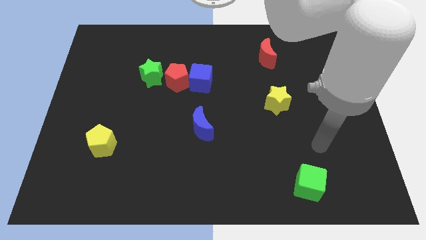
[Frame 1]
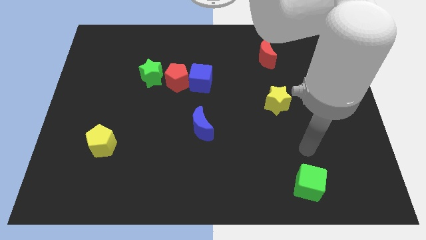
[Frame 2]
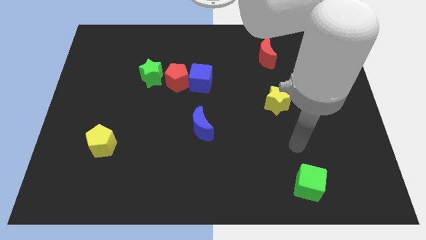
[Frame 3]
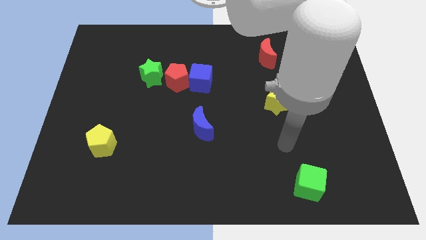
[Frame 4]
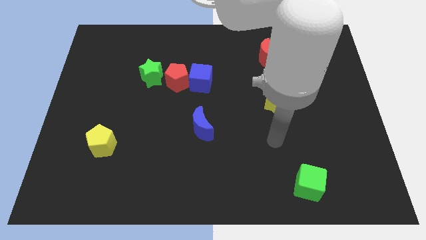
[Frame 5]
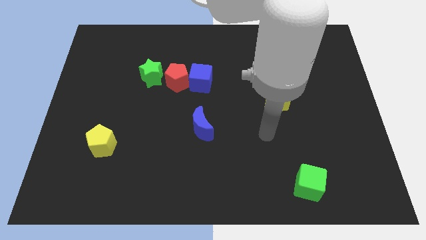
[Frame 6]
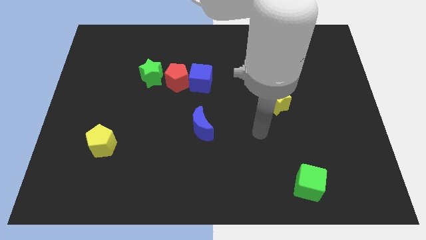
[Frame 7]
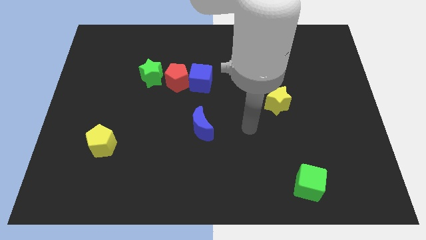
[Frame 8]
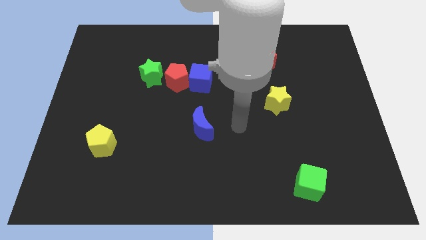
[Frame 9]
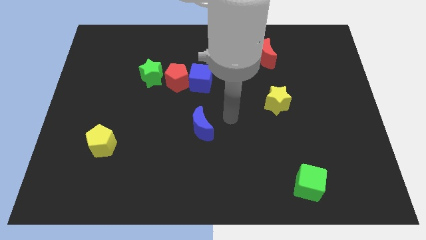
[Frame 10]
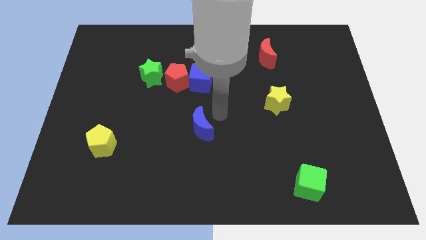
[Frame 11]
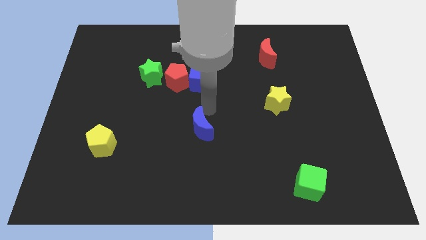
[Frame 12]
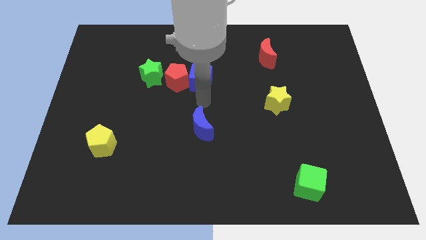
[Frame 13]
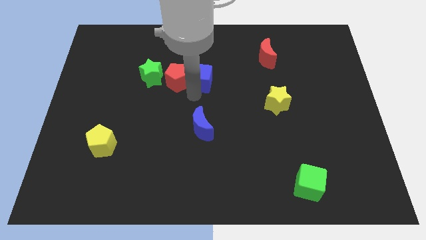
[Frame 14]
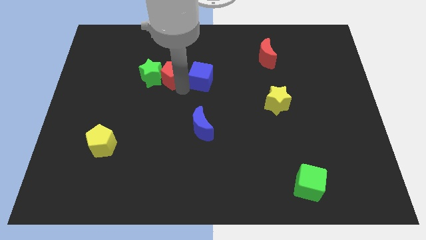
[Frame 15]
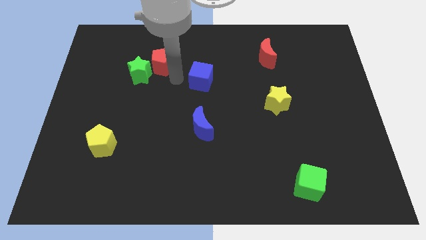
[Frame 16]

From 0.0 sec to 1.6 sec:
move the blue cube away from the red pentagon

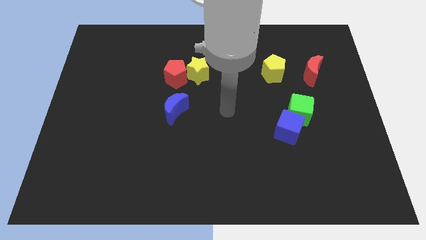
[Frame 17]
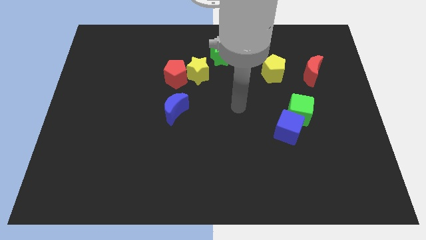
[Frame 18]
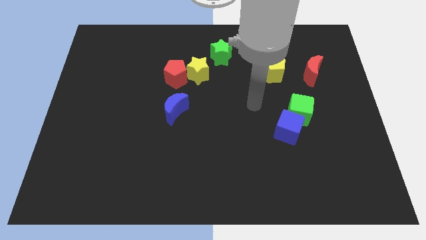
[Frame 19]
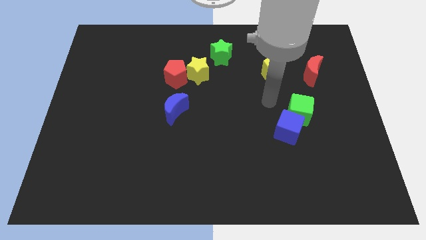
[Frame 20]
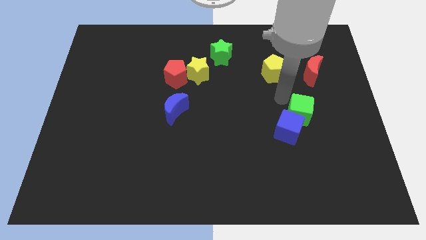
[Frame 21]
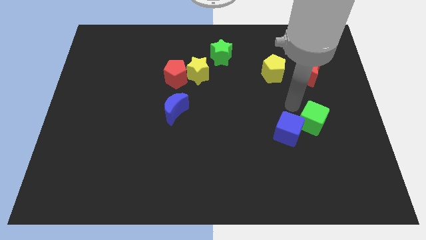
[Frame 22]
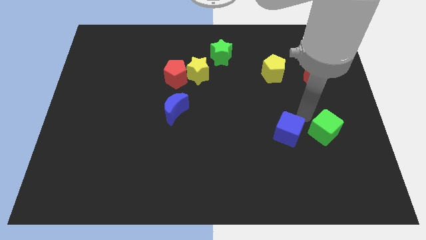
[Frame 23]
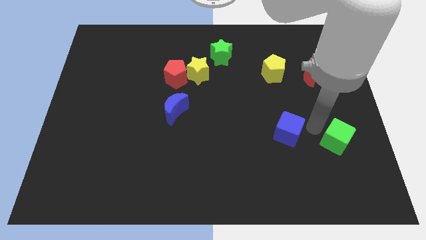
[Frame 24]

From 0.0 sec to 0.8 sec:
pull the blue cube apart from the green cube

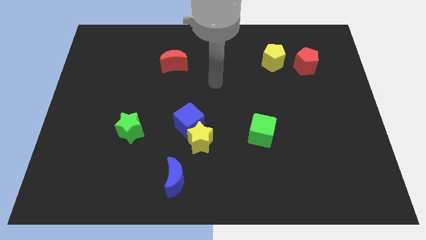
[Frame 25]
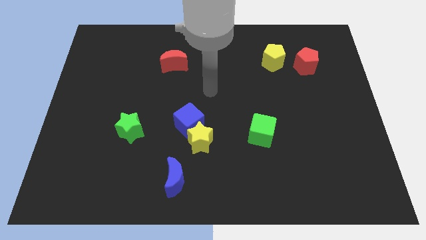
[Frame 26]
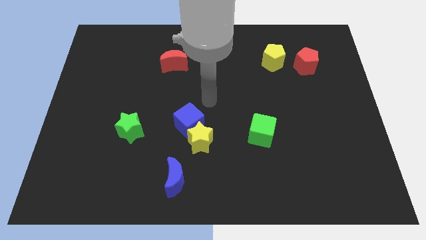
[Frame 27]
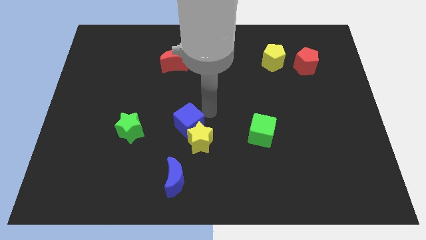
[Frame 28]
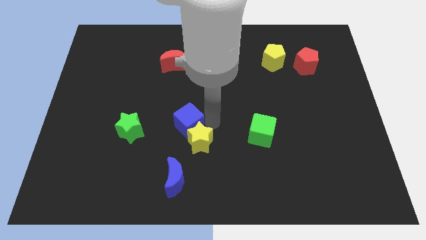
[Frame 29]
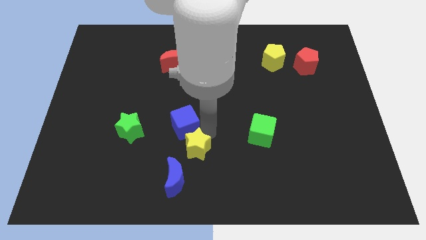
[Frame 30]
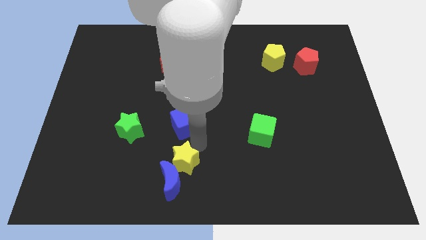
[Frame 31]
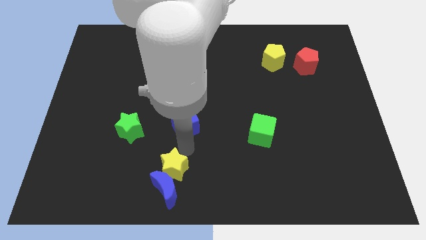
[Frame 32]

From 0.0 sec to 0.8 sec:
move the blue cube away from the yellow star

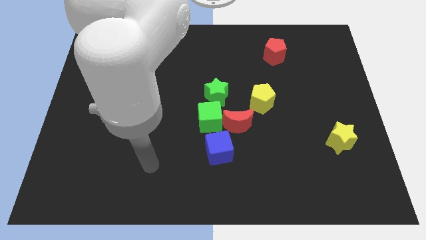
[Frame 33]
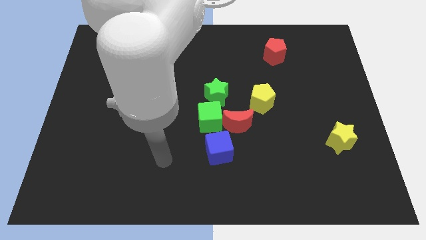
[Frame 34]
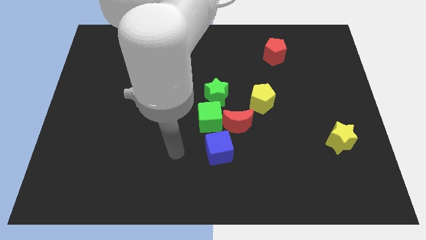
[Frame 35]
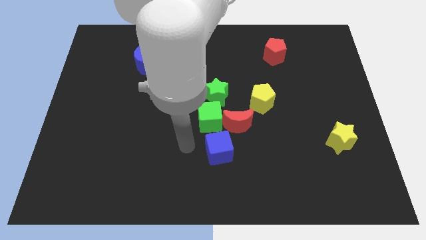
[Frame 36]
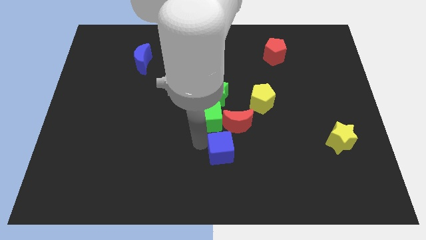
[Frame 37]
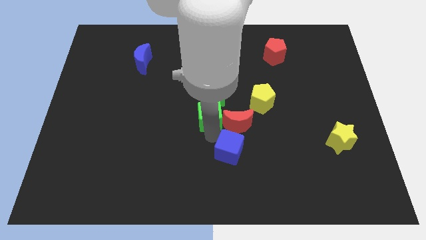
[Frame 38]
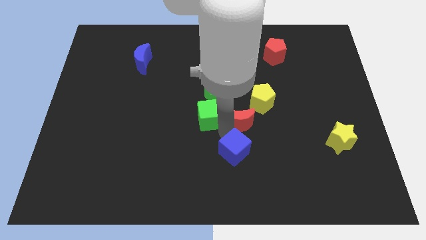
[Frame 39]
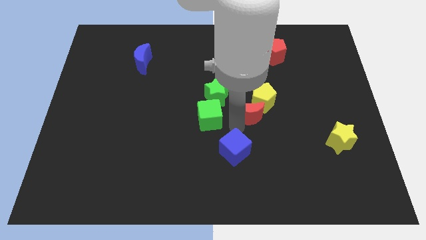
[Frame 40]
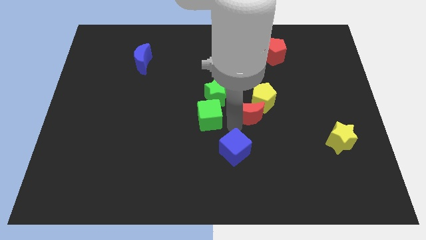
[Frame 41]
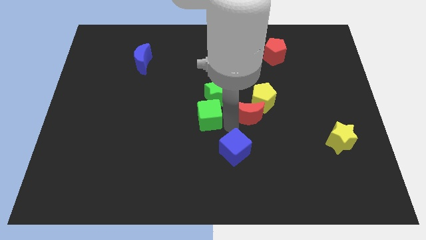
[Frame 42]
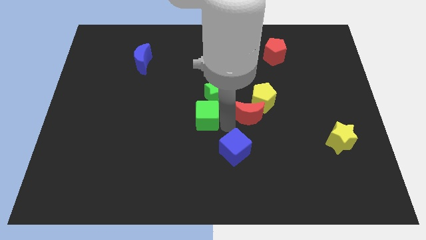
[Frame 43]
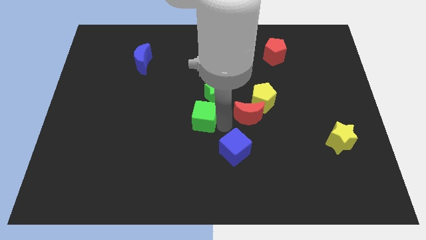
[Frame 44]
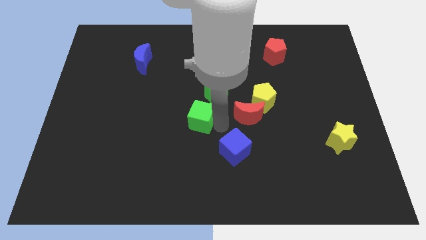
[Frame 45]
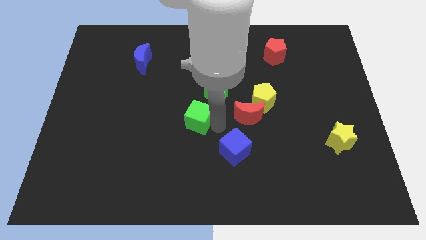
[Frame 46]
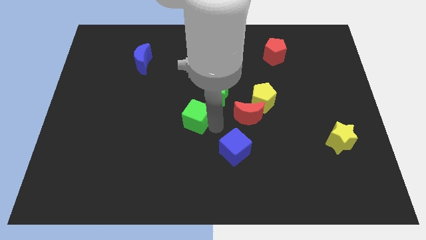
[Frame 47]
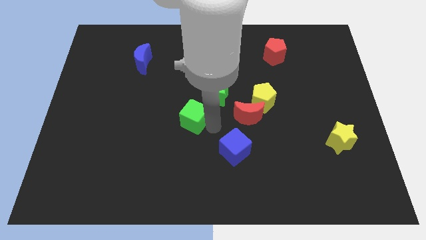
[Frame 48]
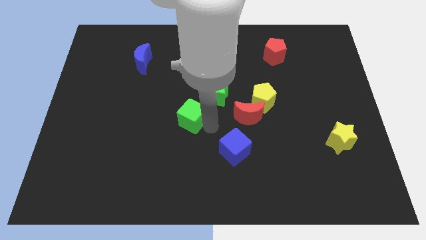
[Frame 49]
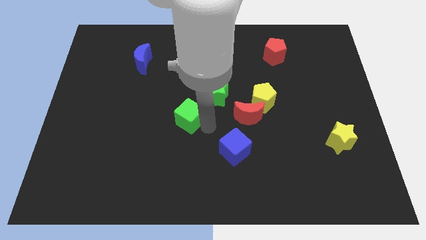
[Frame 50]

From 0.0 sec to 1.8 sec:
separate the green cube from the group of blocks

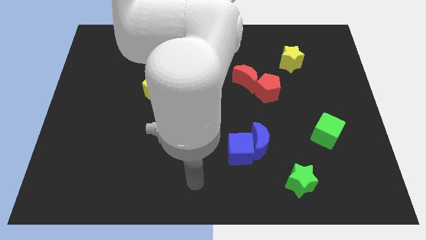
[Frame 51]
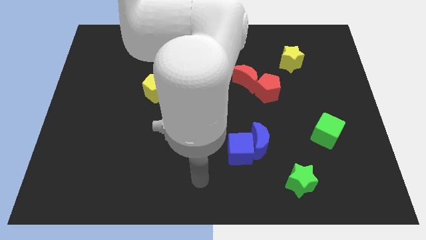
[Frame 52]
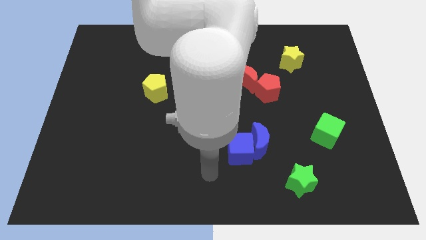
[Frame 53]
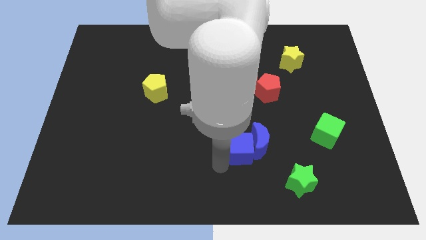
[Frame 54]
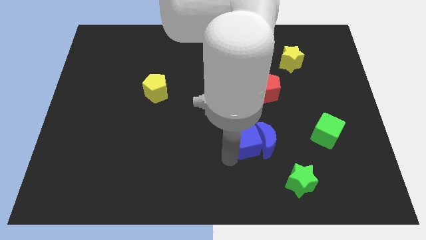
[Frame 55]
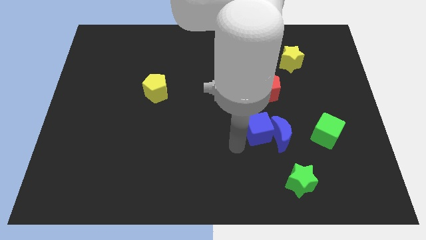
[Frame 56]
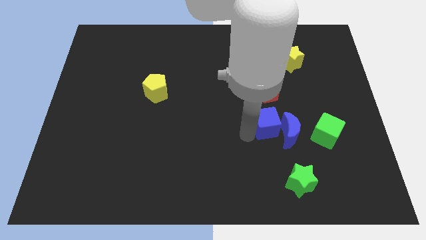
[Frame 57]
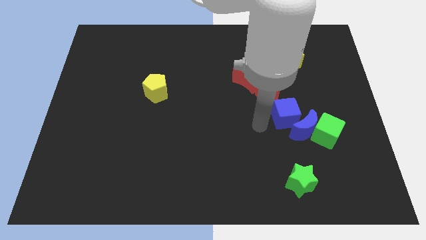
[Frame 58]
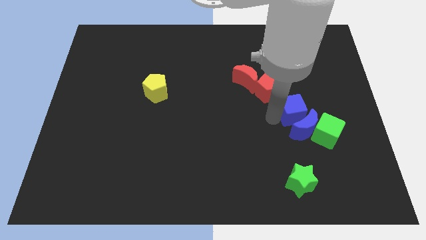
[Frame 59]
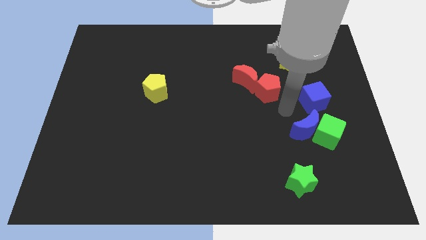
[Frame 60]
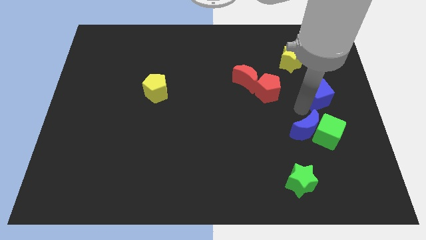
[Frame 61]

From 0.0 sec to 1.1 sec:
pull the blue moon apart from the blue cube

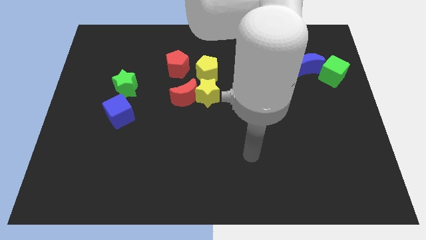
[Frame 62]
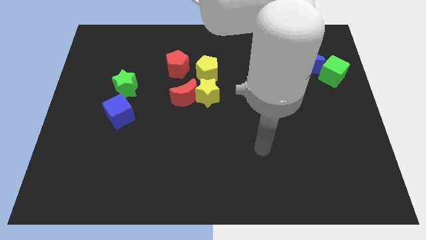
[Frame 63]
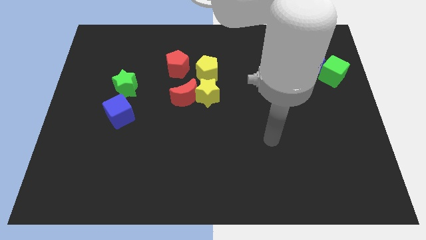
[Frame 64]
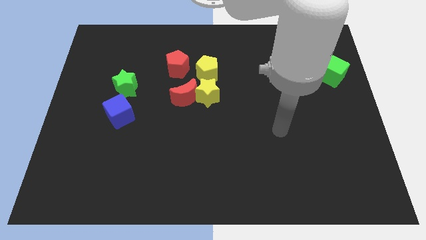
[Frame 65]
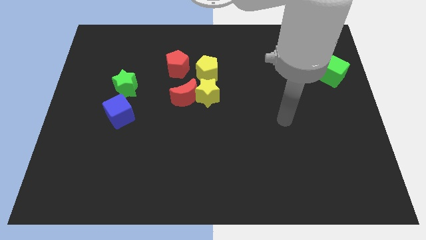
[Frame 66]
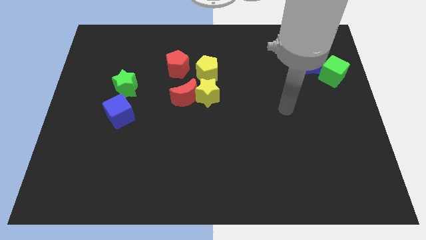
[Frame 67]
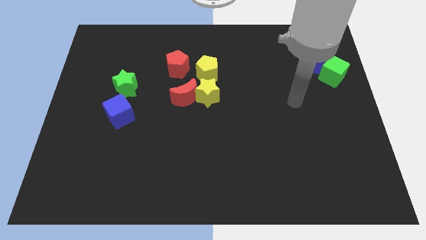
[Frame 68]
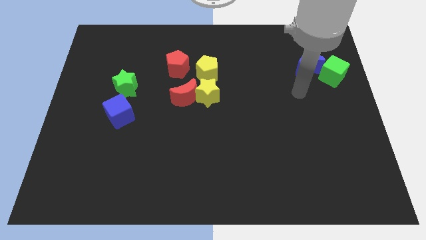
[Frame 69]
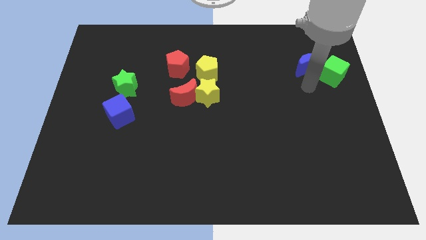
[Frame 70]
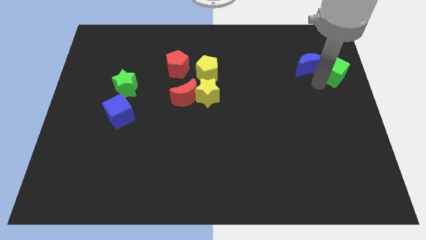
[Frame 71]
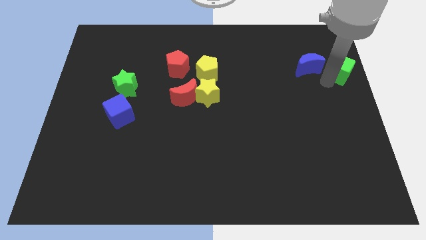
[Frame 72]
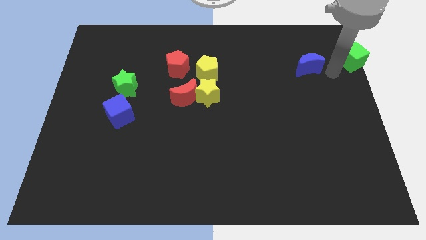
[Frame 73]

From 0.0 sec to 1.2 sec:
pull the blue moon apart from the green cube

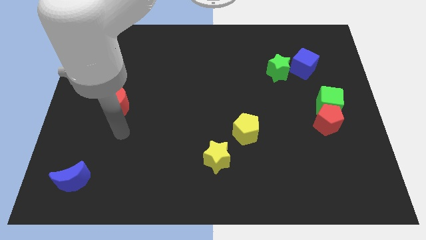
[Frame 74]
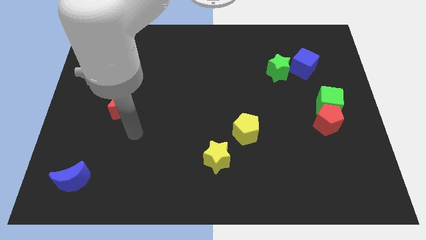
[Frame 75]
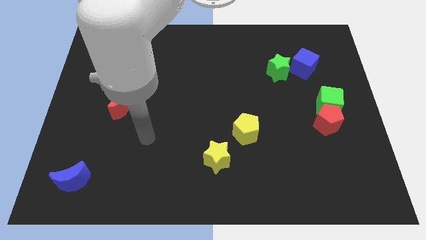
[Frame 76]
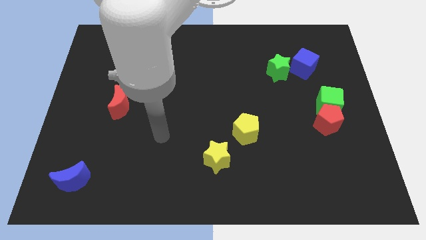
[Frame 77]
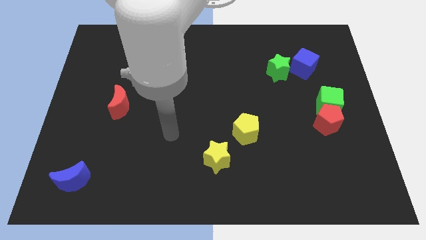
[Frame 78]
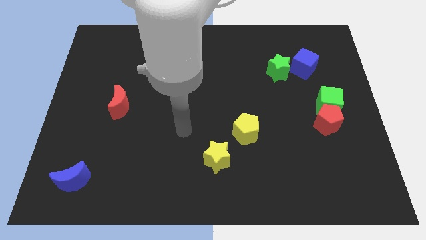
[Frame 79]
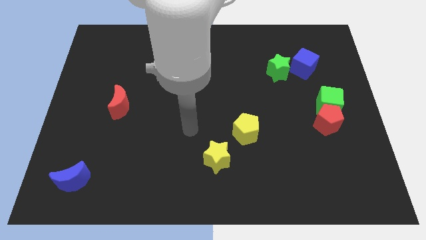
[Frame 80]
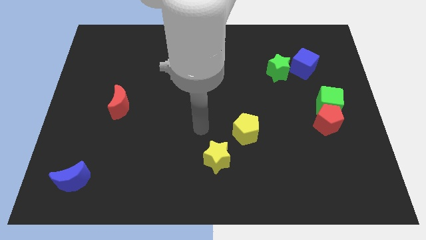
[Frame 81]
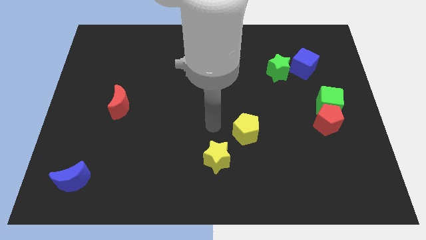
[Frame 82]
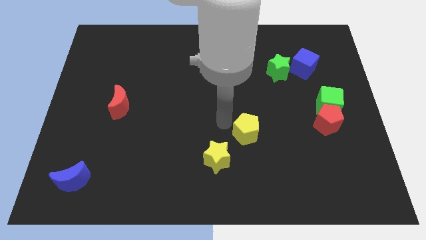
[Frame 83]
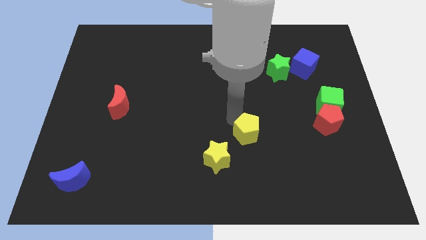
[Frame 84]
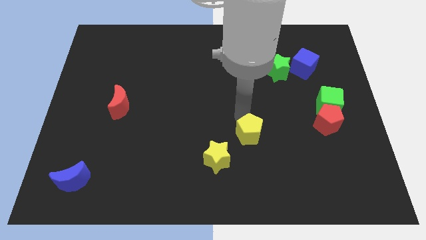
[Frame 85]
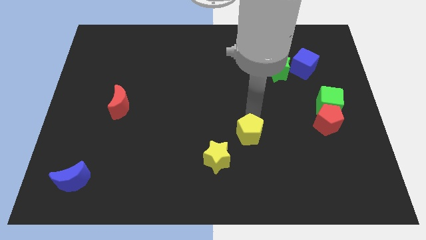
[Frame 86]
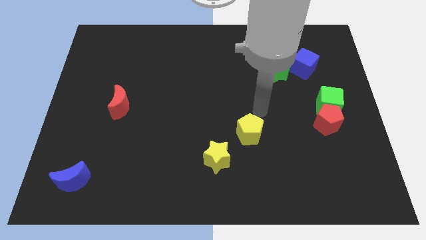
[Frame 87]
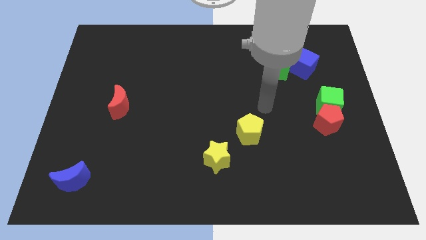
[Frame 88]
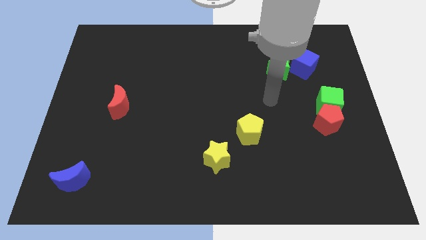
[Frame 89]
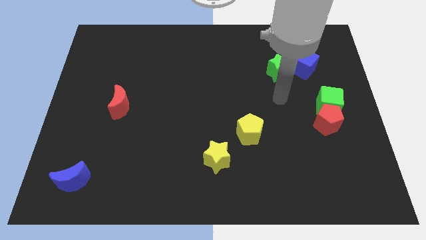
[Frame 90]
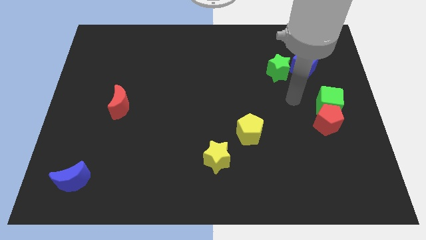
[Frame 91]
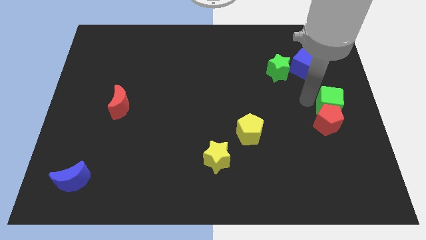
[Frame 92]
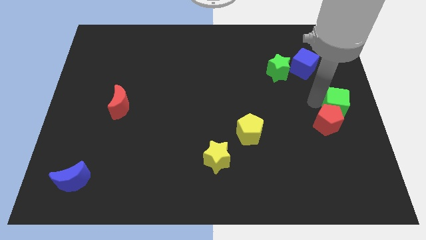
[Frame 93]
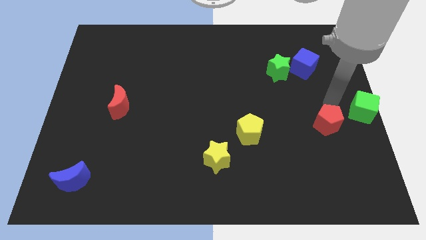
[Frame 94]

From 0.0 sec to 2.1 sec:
move the red pentagon away from the green cube
